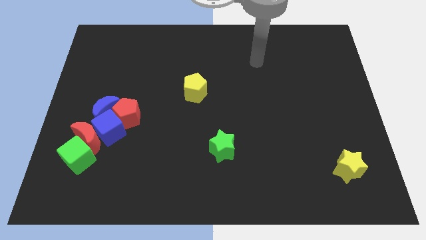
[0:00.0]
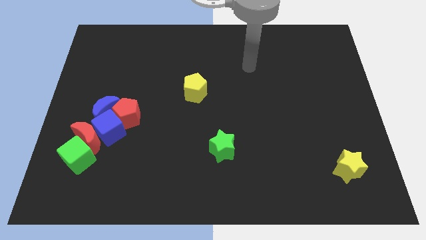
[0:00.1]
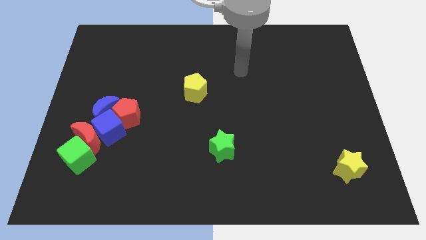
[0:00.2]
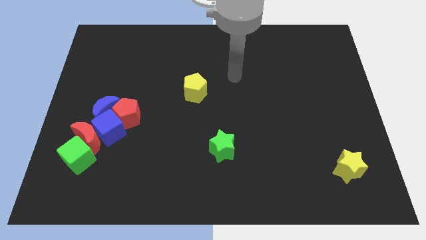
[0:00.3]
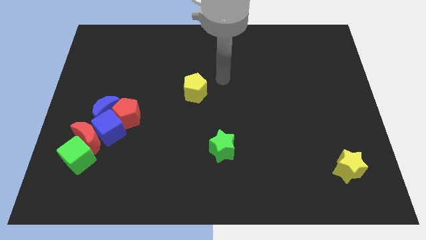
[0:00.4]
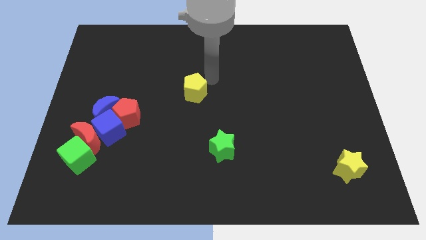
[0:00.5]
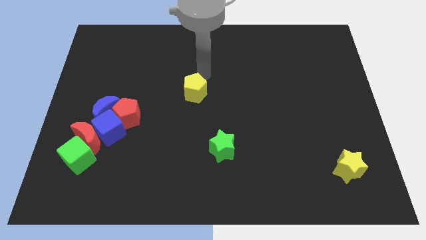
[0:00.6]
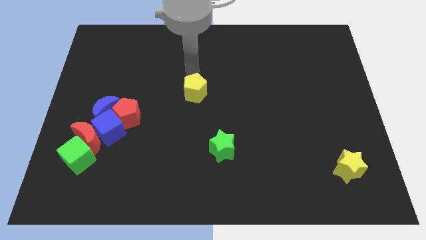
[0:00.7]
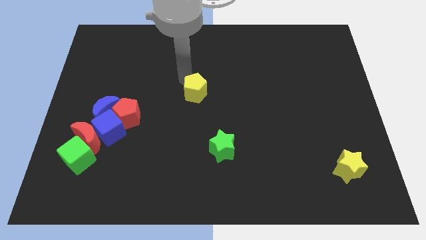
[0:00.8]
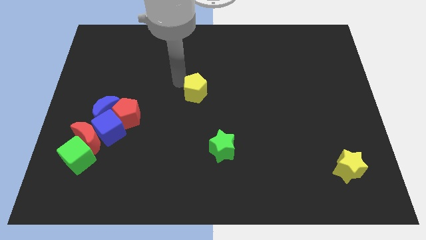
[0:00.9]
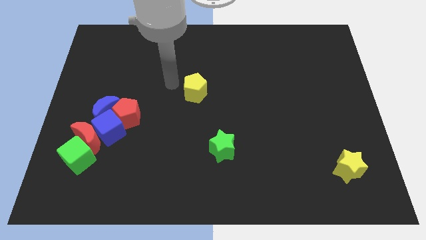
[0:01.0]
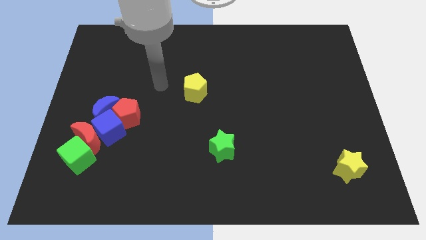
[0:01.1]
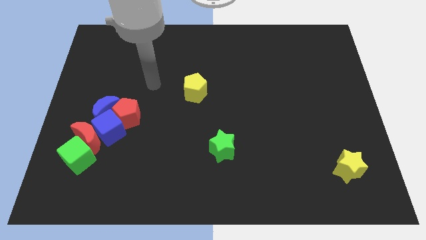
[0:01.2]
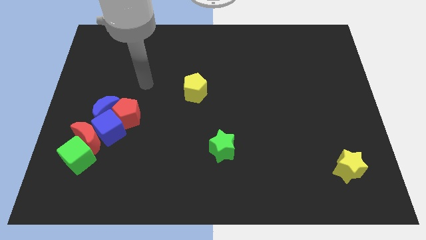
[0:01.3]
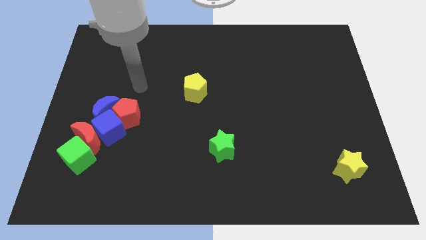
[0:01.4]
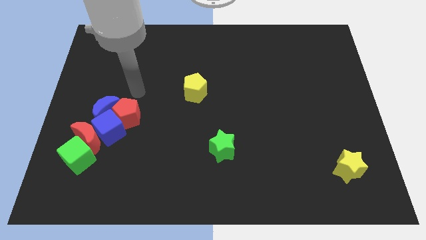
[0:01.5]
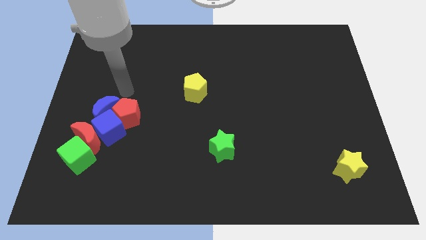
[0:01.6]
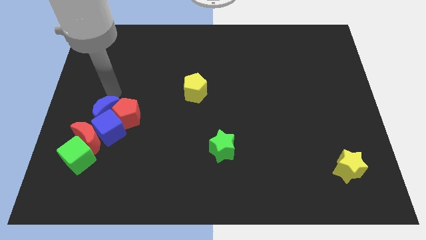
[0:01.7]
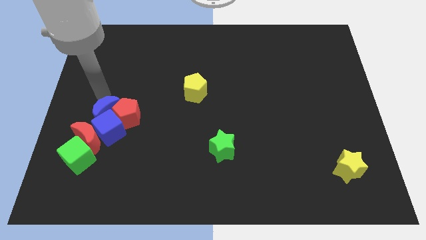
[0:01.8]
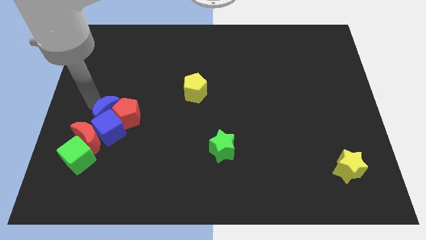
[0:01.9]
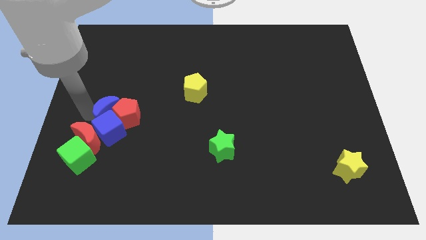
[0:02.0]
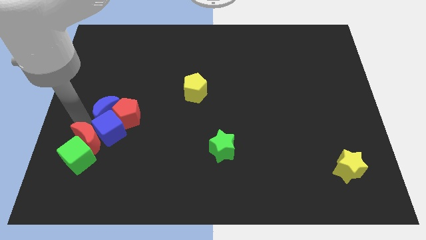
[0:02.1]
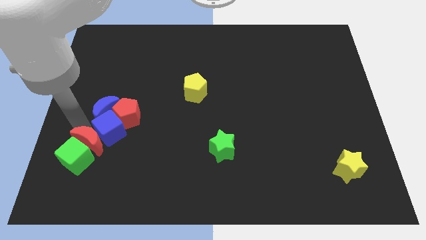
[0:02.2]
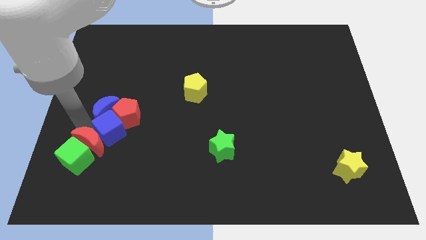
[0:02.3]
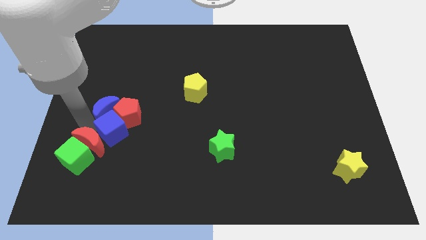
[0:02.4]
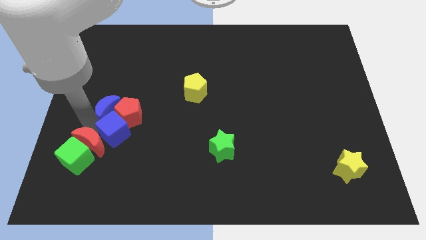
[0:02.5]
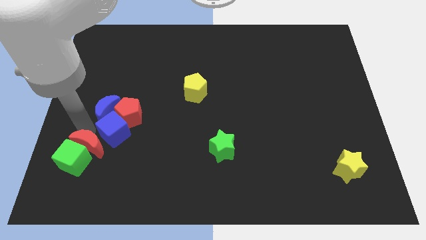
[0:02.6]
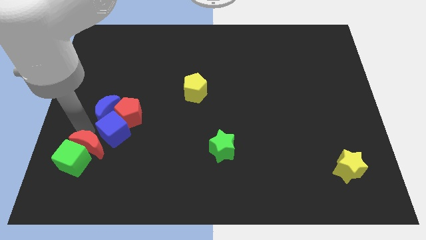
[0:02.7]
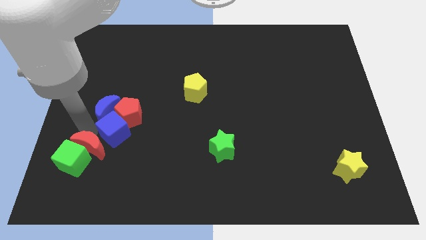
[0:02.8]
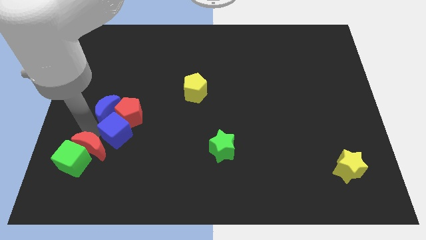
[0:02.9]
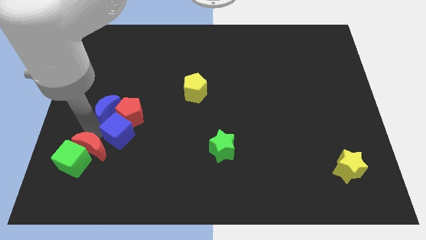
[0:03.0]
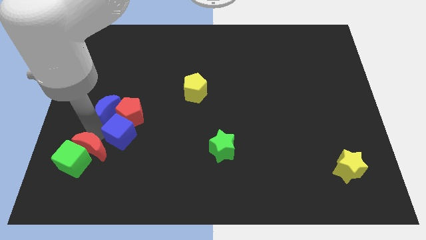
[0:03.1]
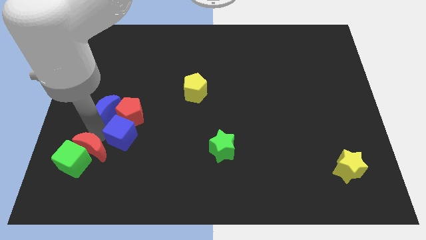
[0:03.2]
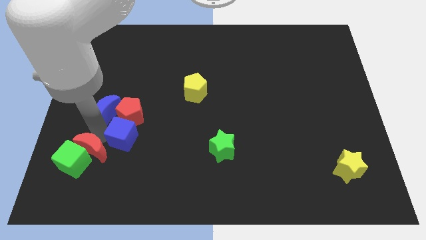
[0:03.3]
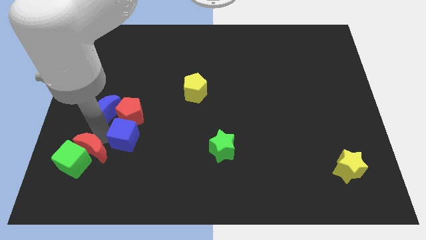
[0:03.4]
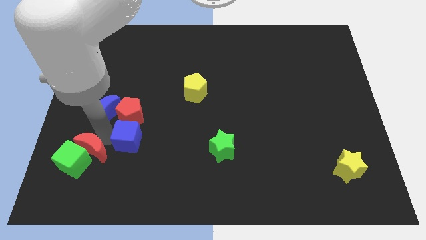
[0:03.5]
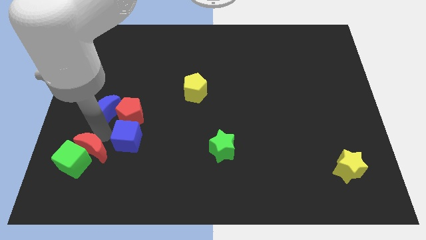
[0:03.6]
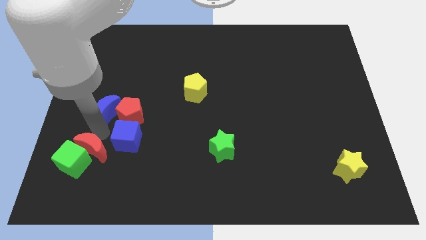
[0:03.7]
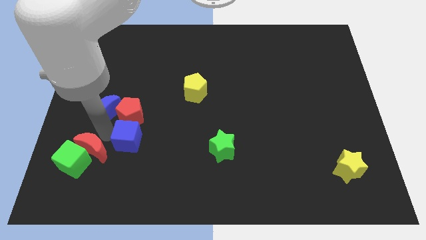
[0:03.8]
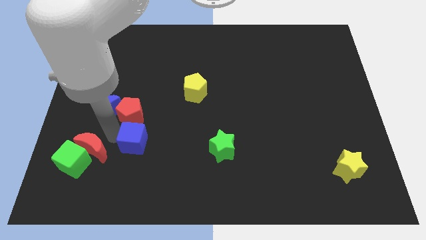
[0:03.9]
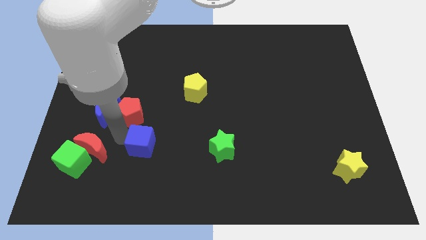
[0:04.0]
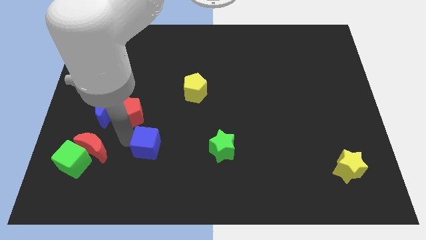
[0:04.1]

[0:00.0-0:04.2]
pull the blue cube apart from the group

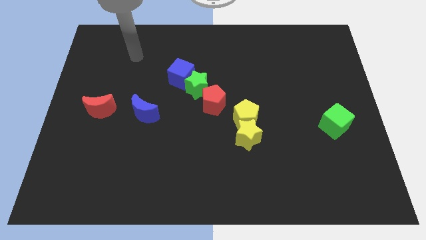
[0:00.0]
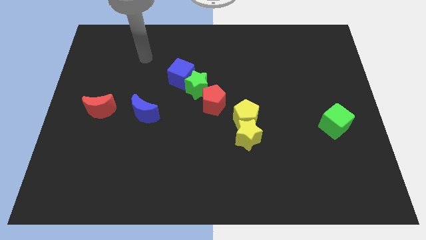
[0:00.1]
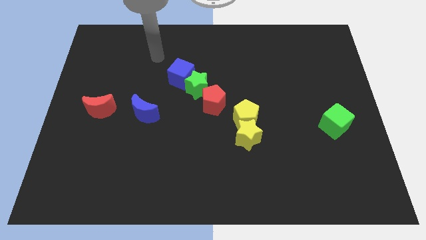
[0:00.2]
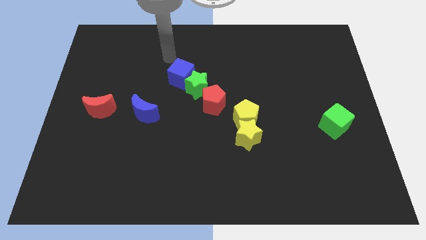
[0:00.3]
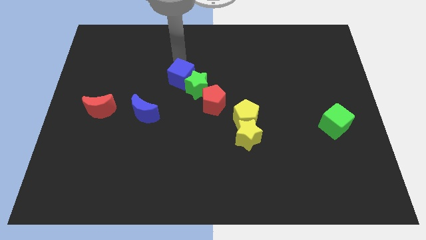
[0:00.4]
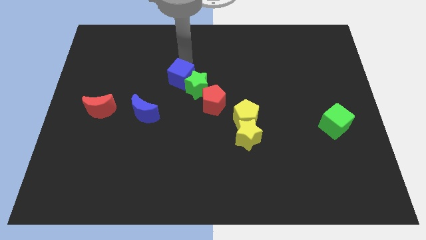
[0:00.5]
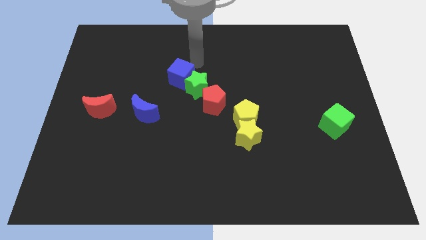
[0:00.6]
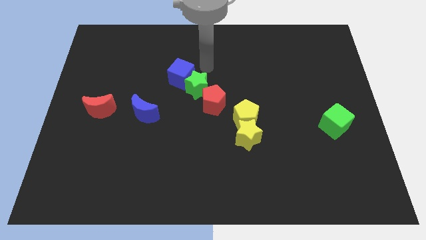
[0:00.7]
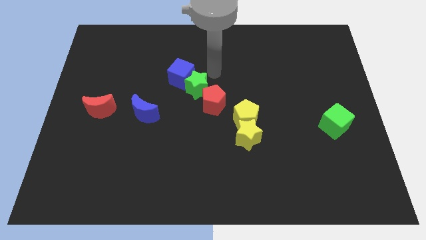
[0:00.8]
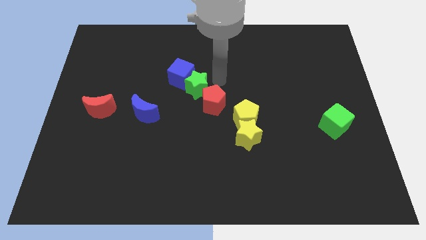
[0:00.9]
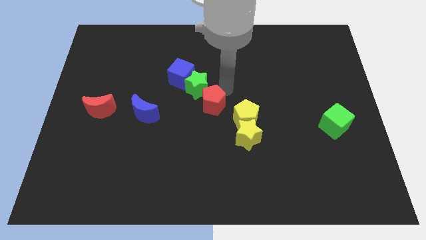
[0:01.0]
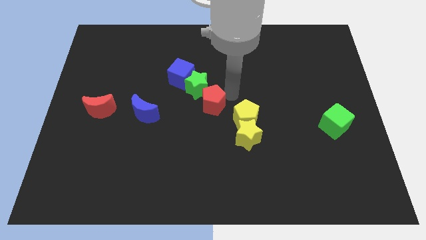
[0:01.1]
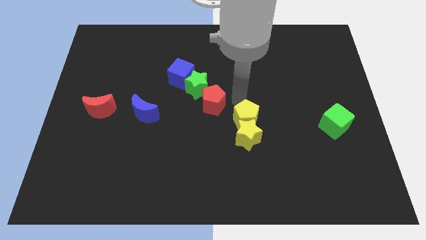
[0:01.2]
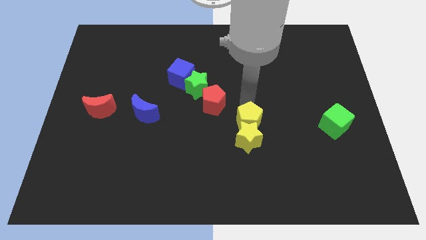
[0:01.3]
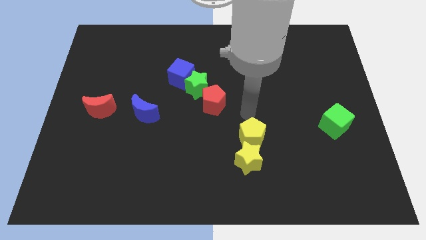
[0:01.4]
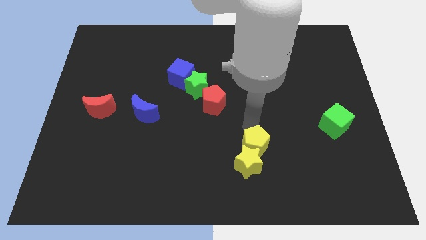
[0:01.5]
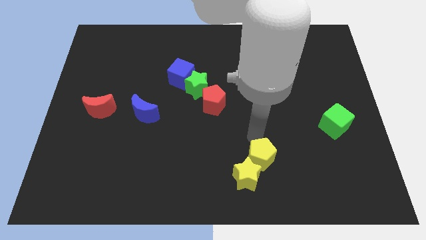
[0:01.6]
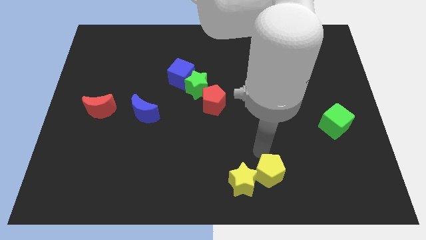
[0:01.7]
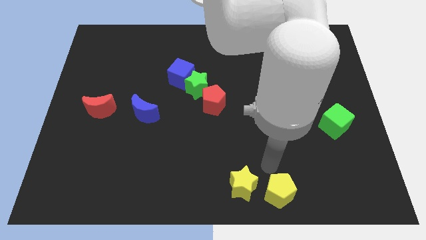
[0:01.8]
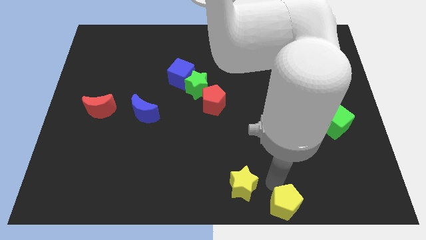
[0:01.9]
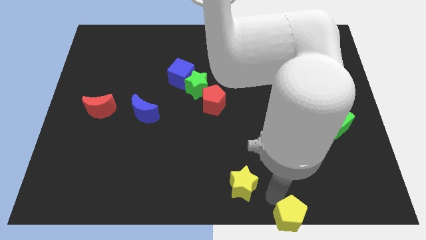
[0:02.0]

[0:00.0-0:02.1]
separate the yellow star from the yellow pentagon

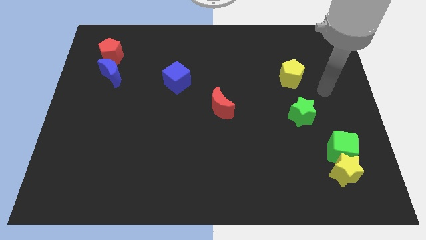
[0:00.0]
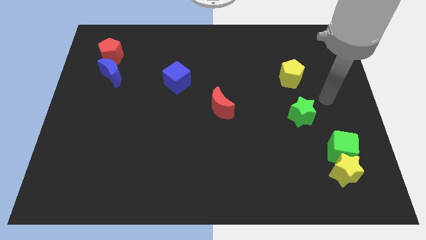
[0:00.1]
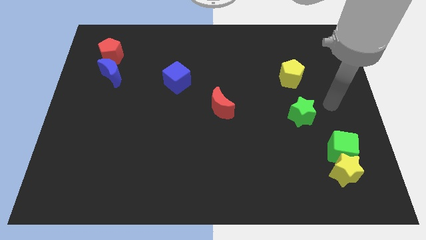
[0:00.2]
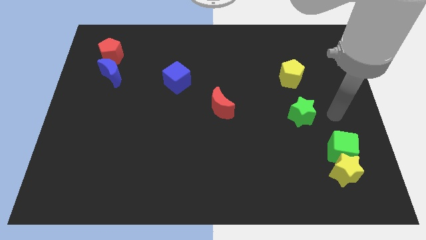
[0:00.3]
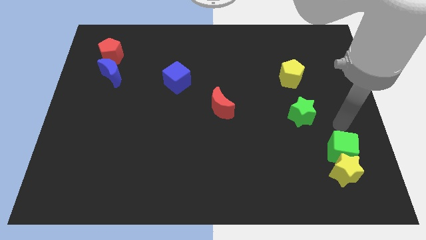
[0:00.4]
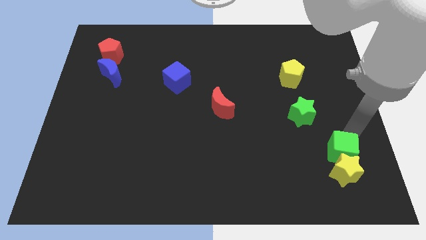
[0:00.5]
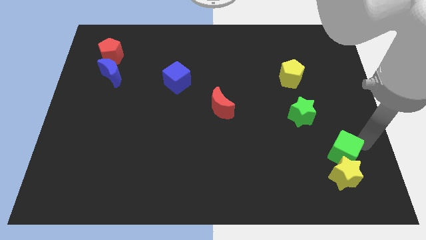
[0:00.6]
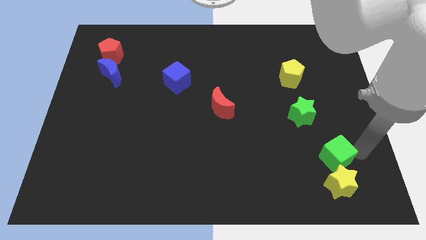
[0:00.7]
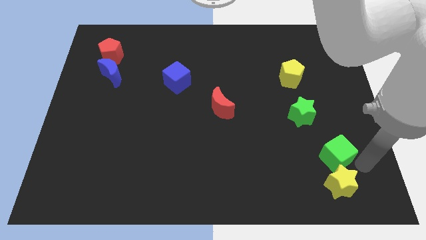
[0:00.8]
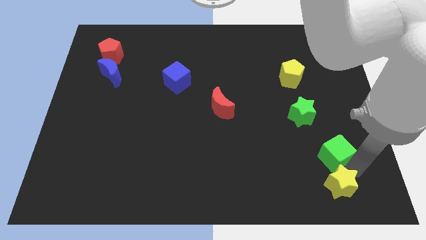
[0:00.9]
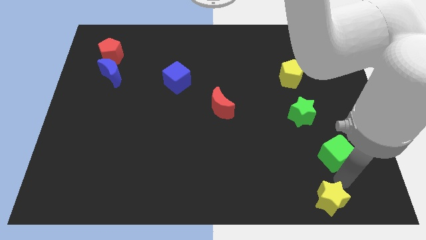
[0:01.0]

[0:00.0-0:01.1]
move the green cube away from the yellow star

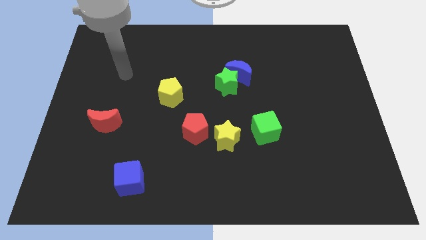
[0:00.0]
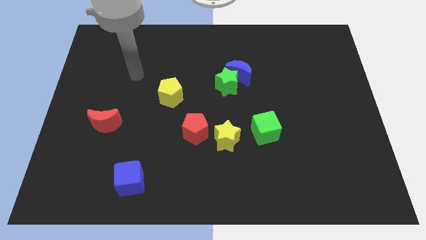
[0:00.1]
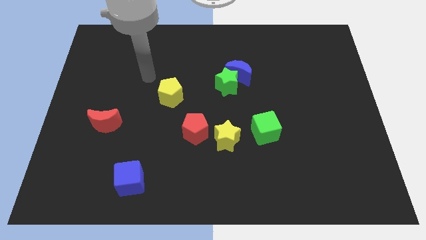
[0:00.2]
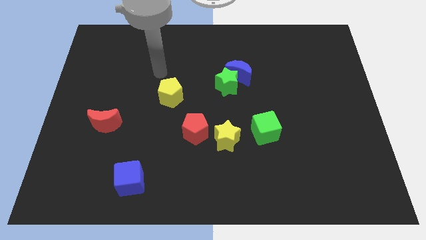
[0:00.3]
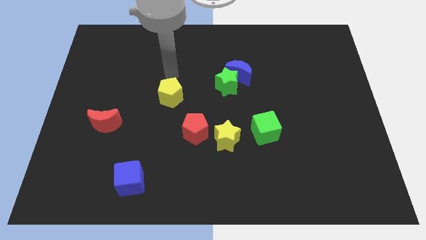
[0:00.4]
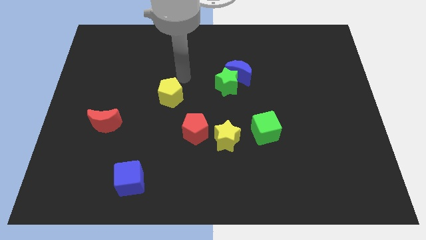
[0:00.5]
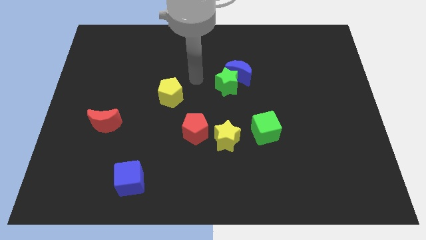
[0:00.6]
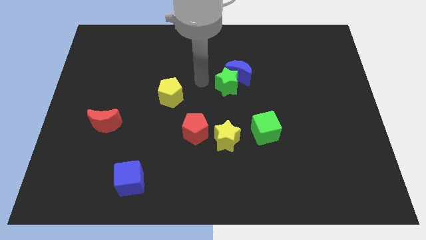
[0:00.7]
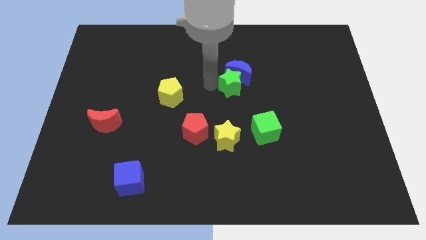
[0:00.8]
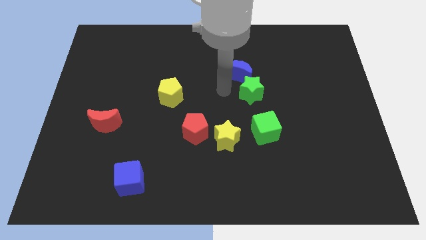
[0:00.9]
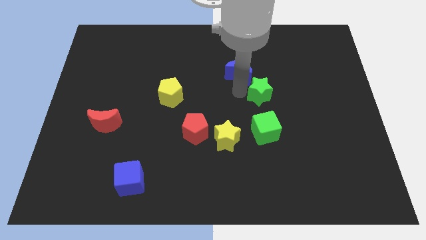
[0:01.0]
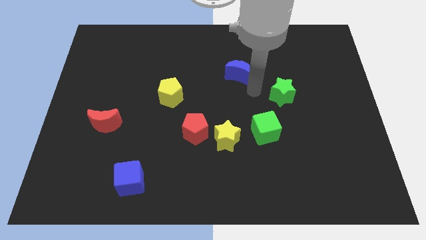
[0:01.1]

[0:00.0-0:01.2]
separate the blue moon from the green star

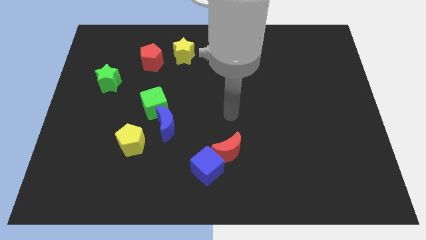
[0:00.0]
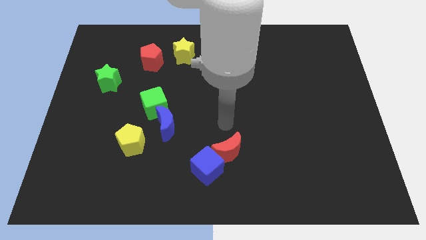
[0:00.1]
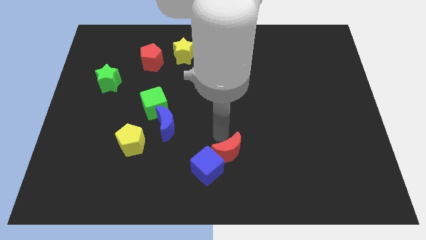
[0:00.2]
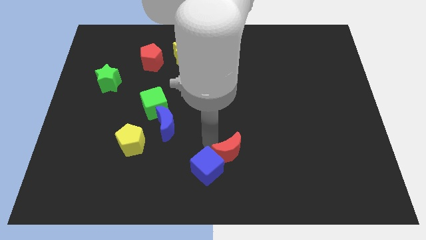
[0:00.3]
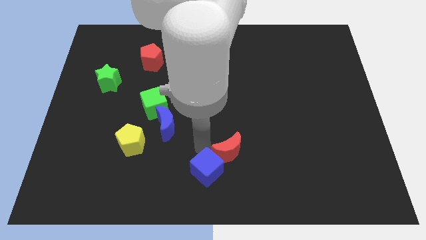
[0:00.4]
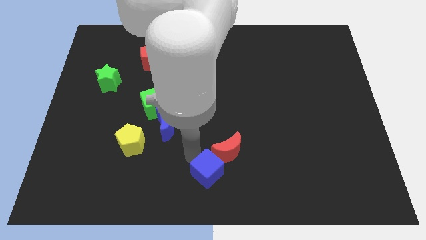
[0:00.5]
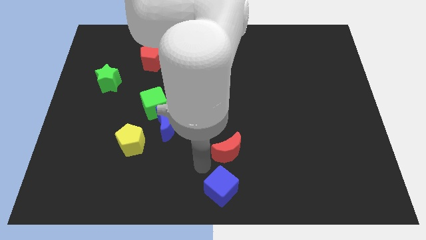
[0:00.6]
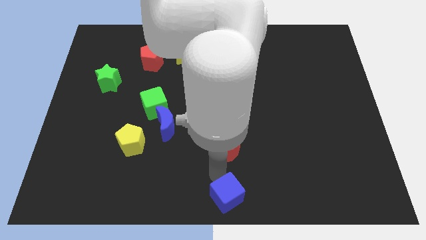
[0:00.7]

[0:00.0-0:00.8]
pull the red moon apart from the blue cube
